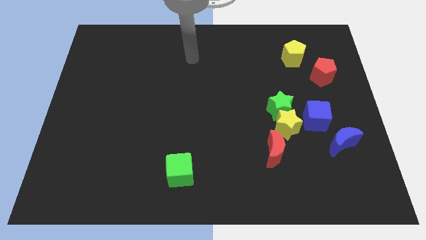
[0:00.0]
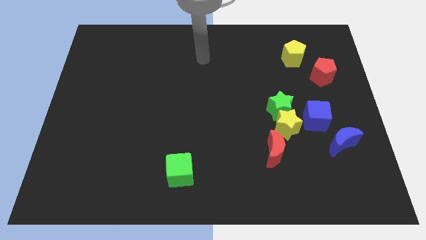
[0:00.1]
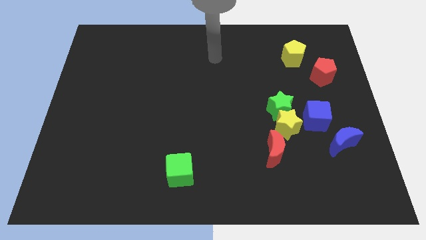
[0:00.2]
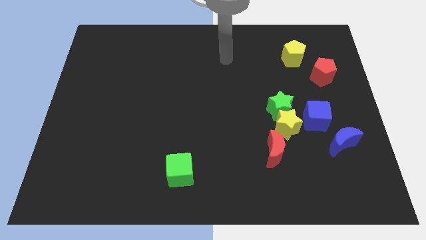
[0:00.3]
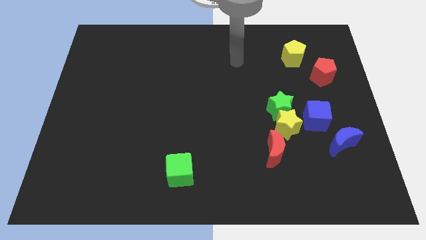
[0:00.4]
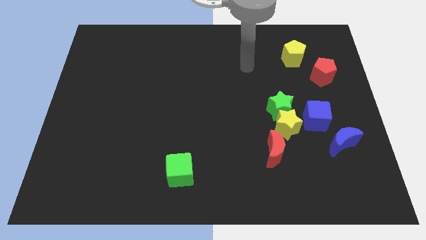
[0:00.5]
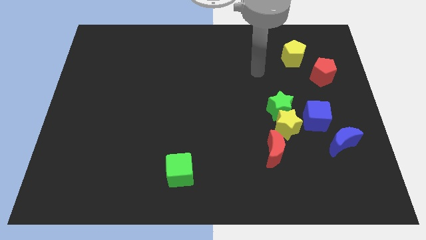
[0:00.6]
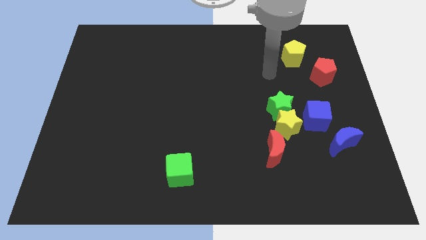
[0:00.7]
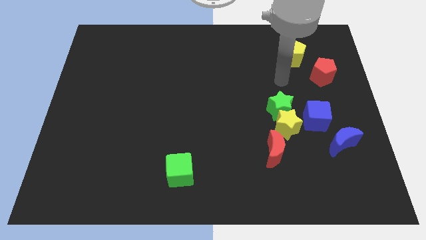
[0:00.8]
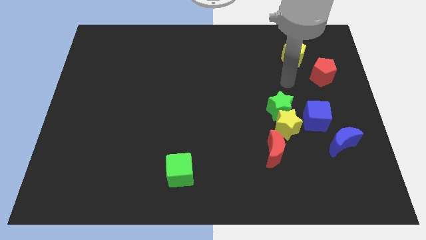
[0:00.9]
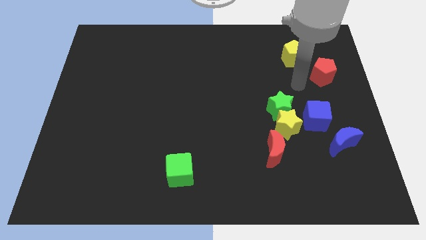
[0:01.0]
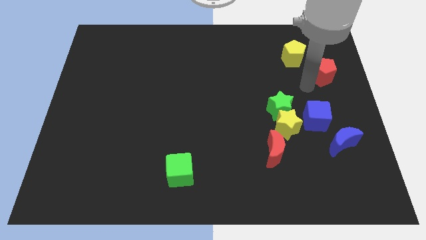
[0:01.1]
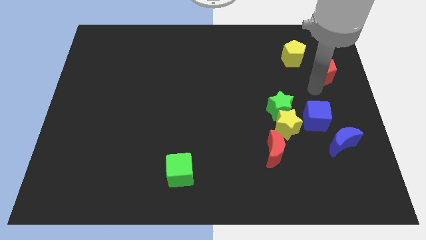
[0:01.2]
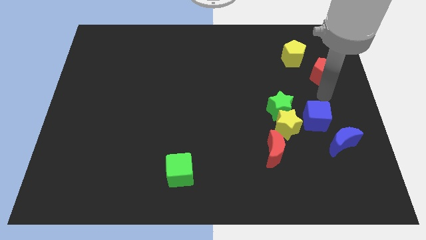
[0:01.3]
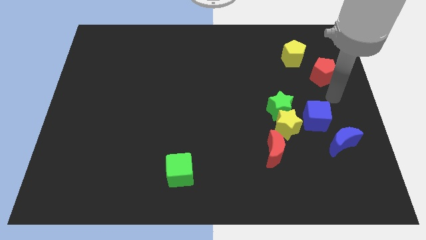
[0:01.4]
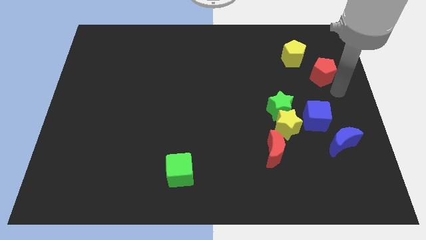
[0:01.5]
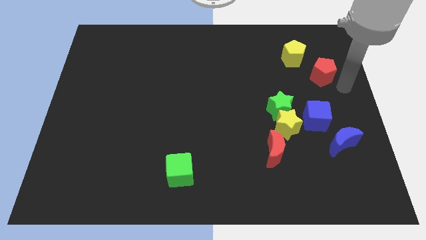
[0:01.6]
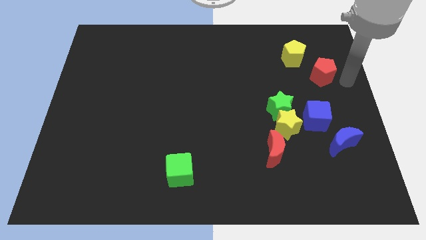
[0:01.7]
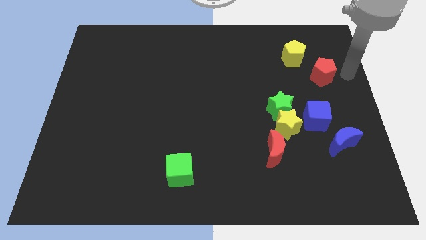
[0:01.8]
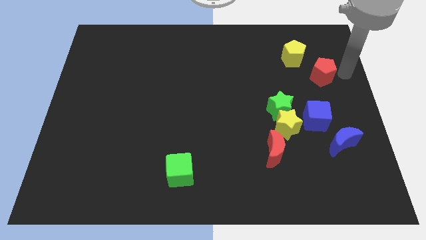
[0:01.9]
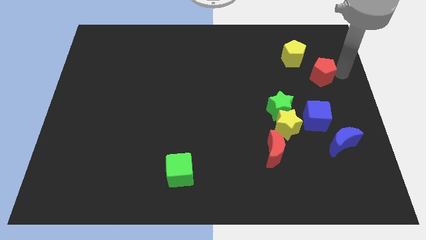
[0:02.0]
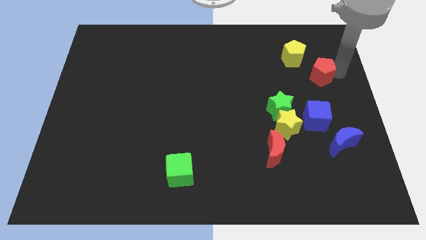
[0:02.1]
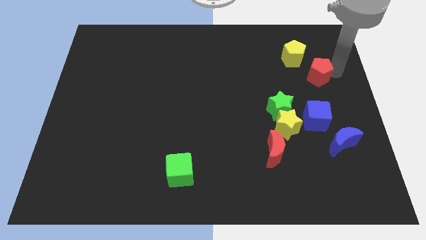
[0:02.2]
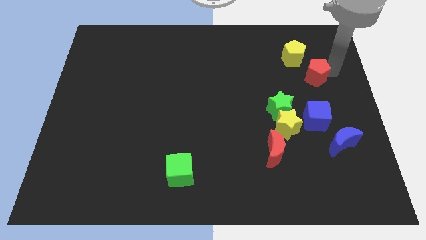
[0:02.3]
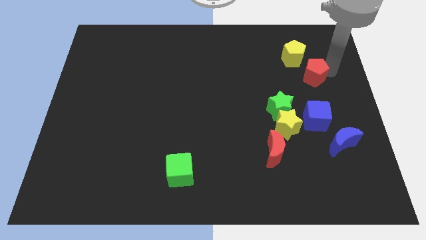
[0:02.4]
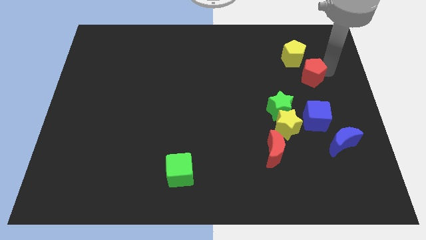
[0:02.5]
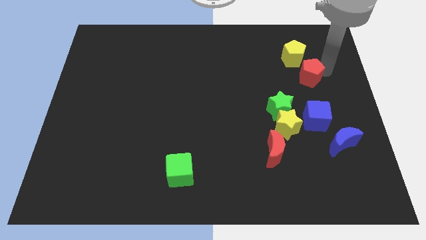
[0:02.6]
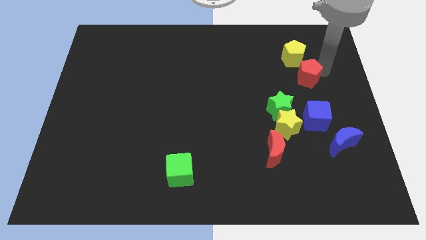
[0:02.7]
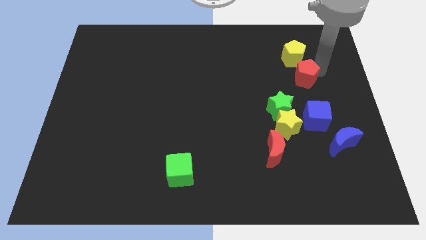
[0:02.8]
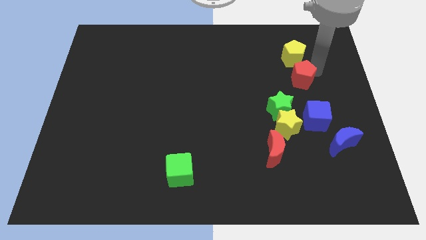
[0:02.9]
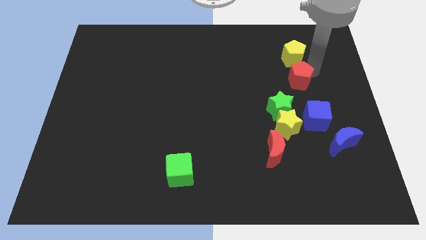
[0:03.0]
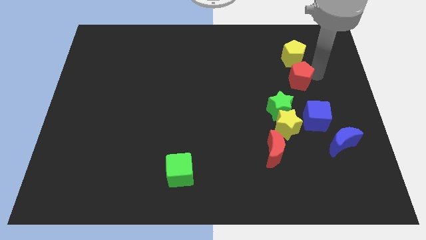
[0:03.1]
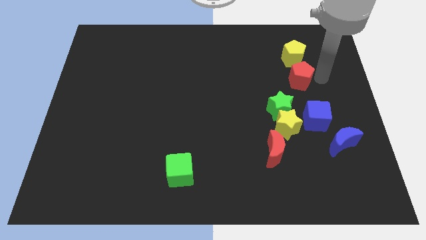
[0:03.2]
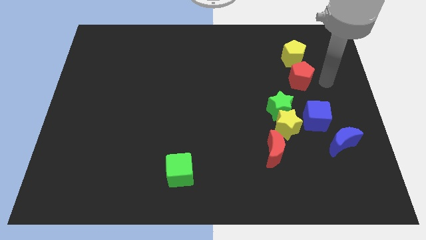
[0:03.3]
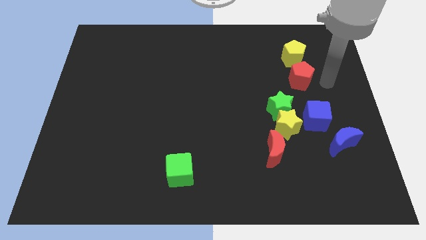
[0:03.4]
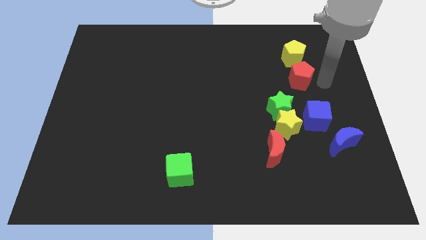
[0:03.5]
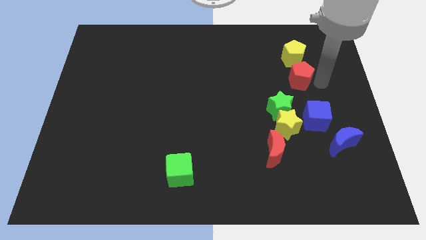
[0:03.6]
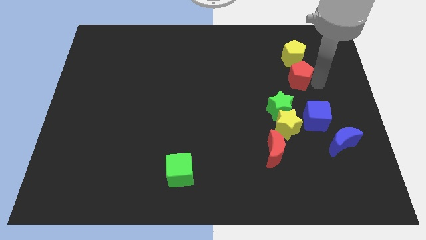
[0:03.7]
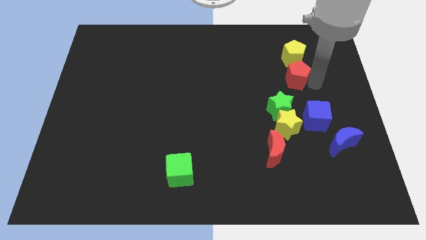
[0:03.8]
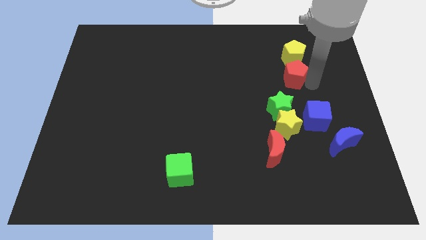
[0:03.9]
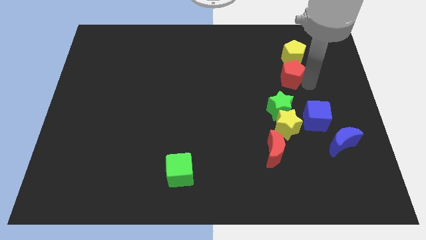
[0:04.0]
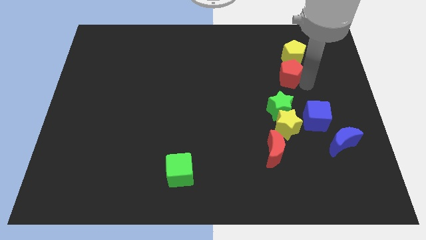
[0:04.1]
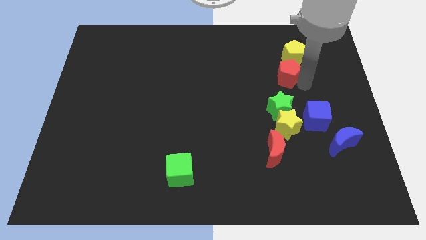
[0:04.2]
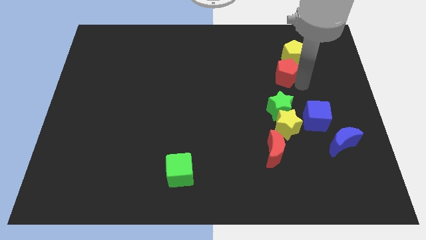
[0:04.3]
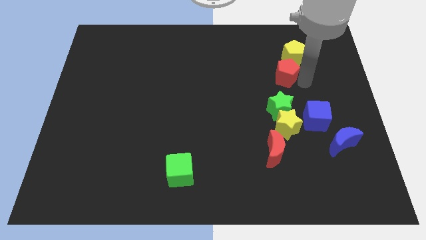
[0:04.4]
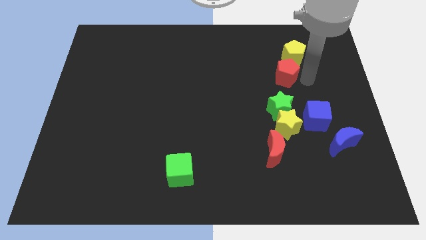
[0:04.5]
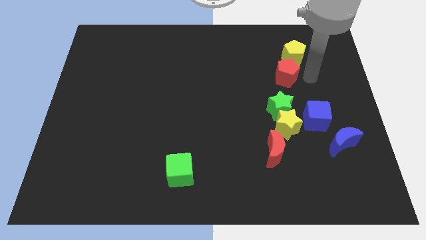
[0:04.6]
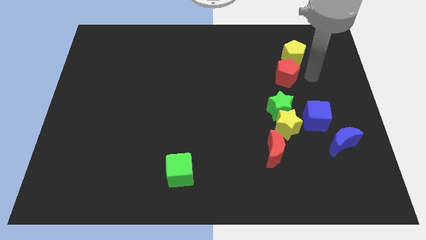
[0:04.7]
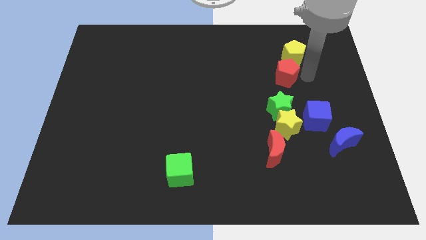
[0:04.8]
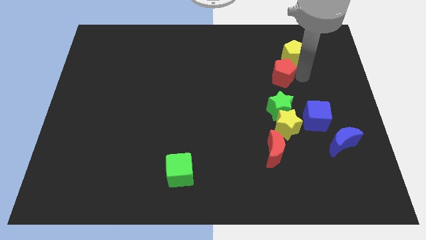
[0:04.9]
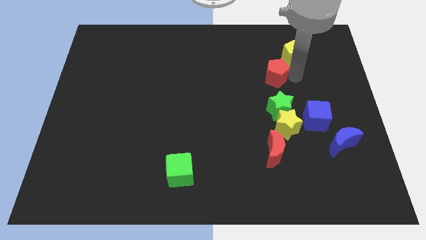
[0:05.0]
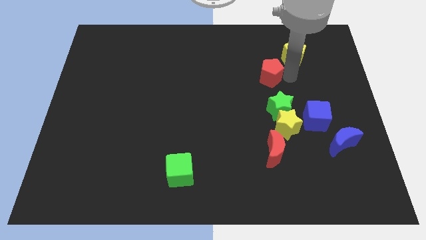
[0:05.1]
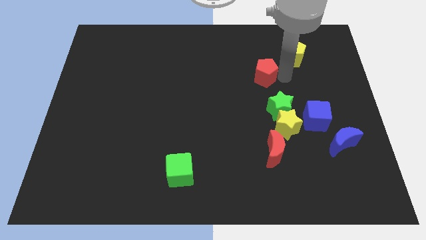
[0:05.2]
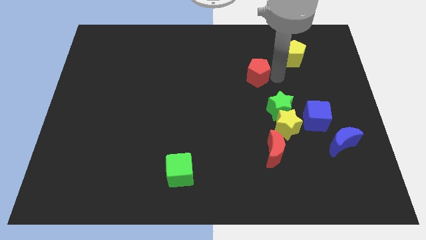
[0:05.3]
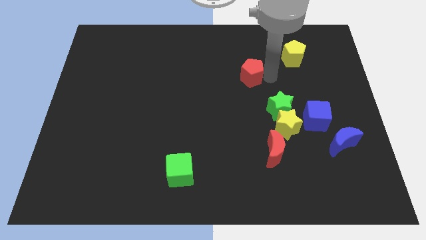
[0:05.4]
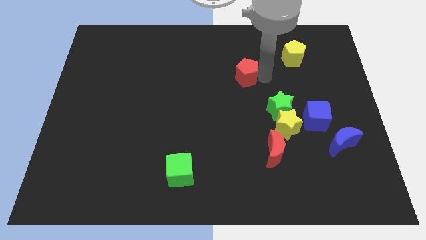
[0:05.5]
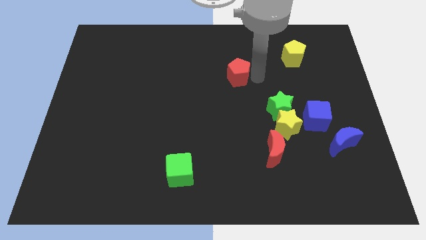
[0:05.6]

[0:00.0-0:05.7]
push the red pentagon to the left

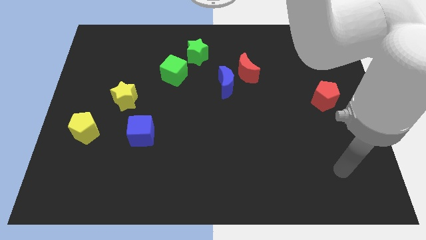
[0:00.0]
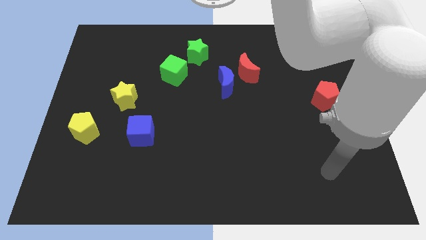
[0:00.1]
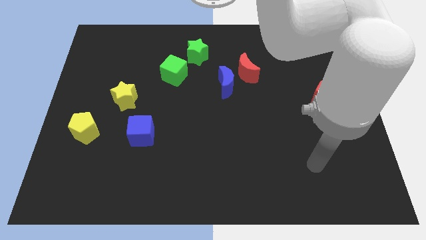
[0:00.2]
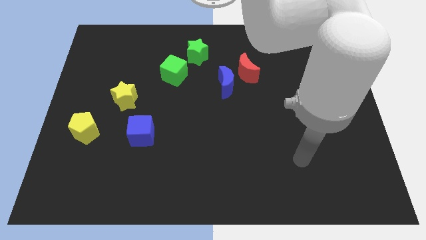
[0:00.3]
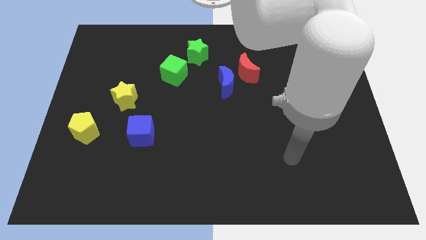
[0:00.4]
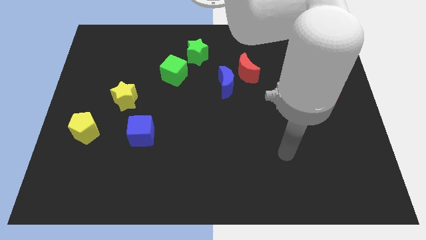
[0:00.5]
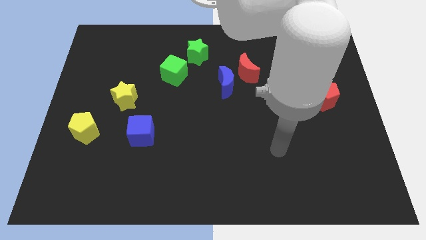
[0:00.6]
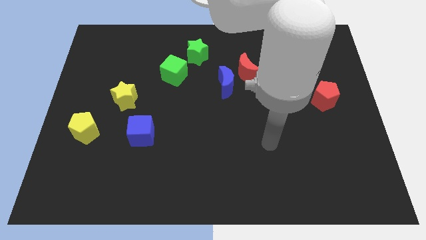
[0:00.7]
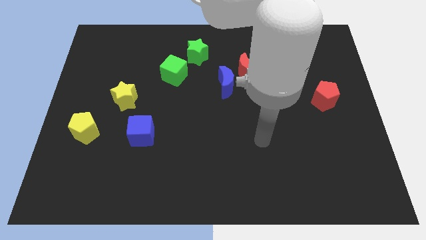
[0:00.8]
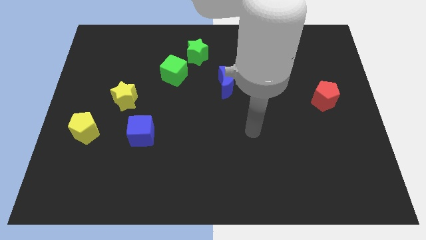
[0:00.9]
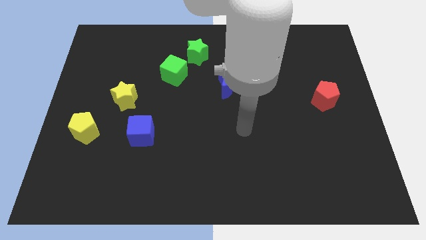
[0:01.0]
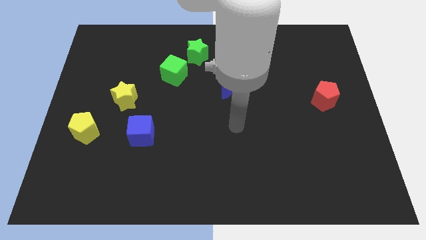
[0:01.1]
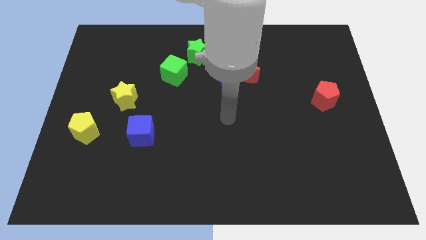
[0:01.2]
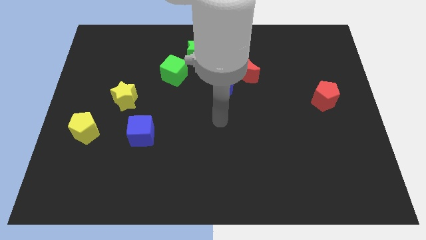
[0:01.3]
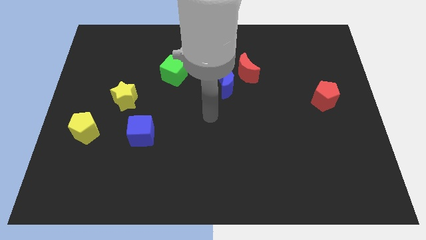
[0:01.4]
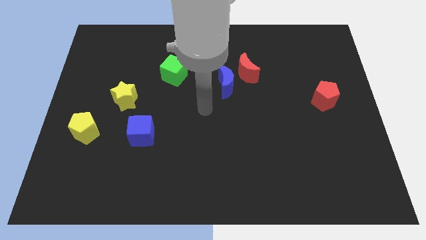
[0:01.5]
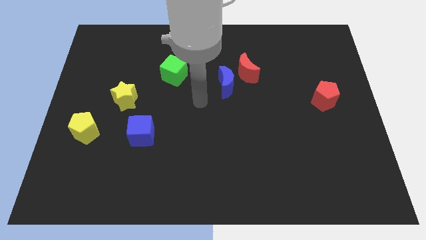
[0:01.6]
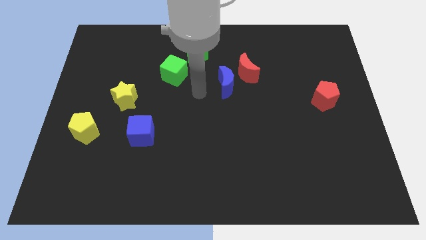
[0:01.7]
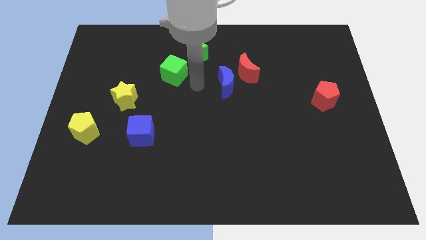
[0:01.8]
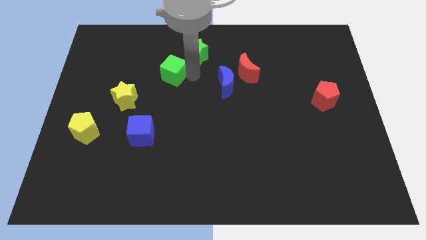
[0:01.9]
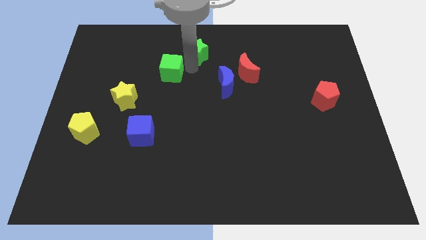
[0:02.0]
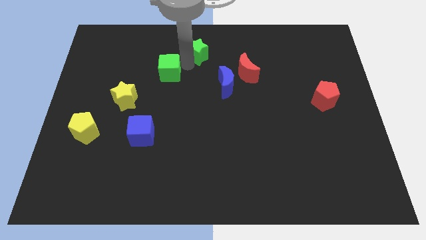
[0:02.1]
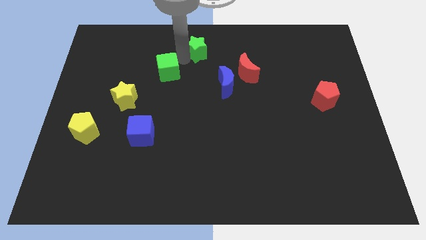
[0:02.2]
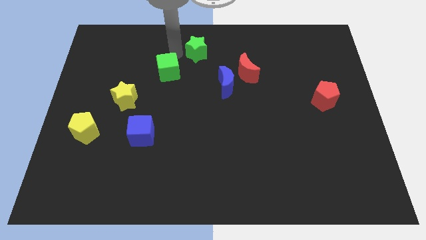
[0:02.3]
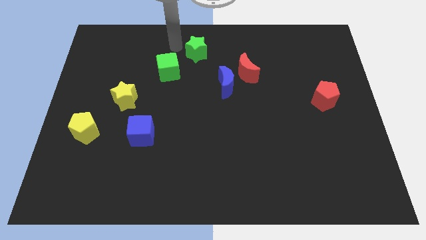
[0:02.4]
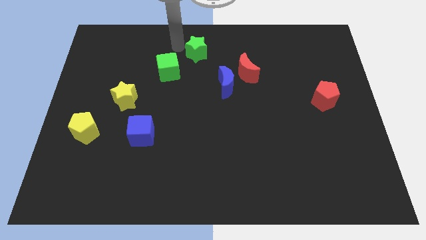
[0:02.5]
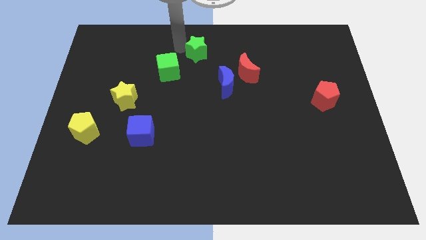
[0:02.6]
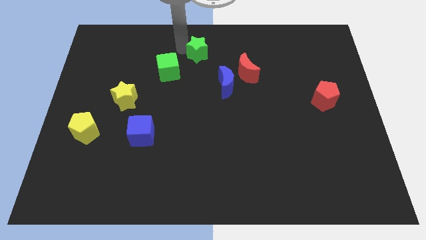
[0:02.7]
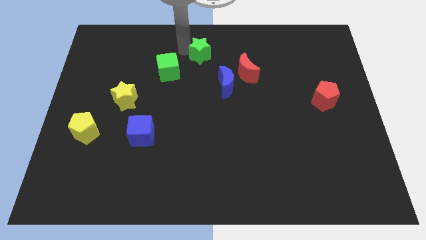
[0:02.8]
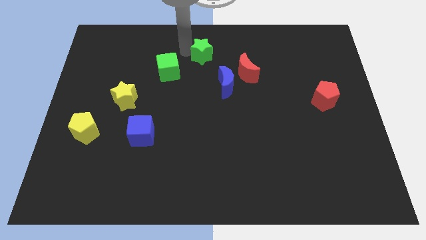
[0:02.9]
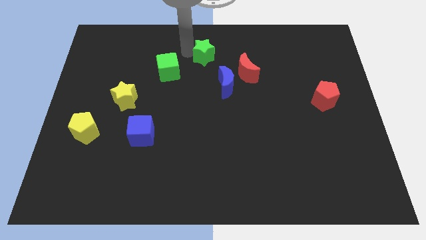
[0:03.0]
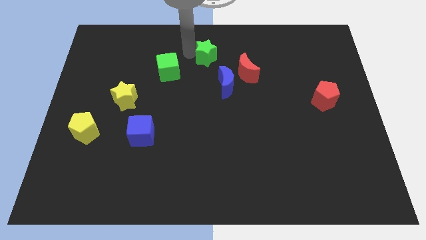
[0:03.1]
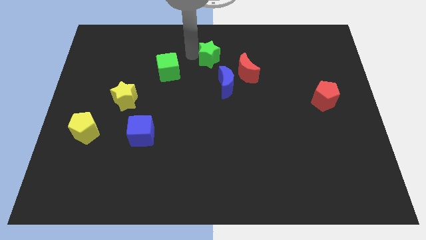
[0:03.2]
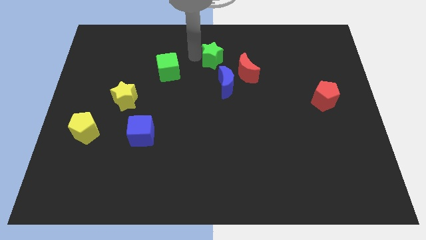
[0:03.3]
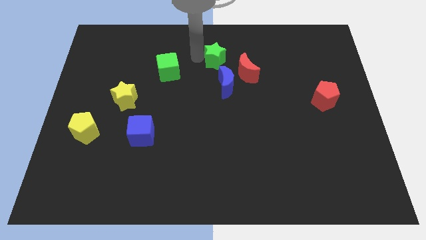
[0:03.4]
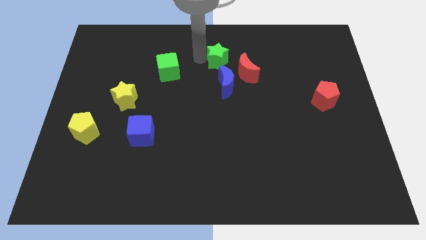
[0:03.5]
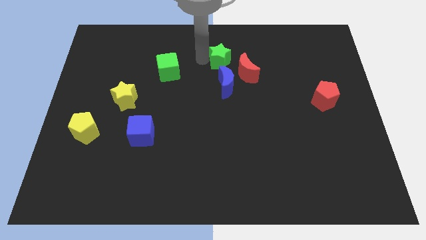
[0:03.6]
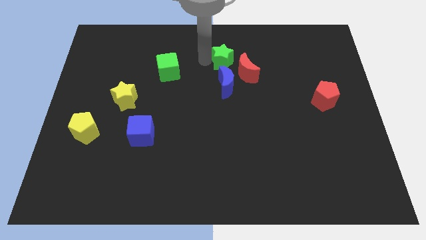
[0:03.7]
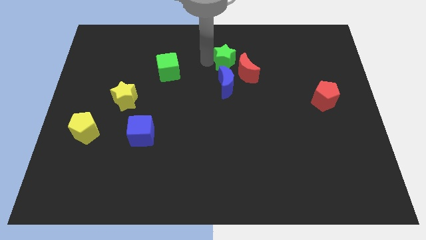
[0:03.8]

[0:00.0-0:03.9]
slightly slide the green star right
